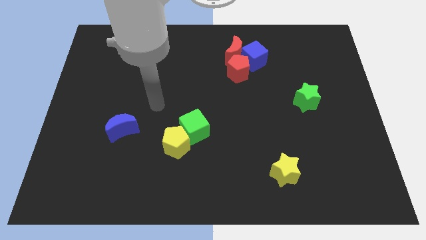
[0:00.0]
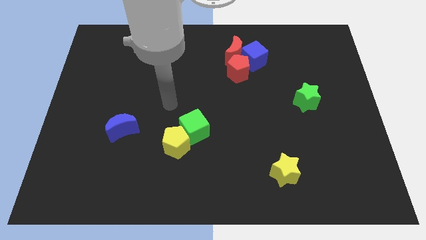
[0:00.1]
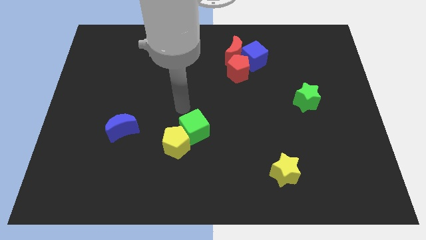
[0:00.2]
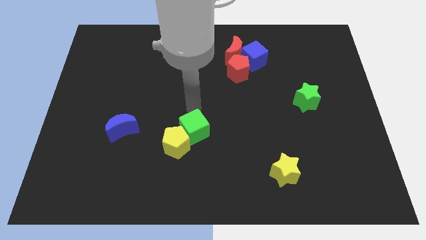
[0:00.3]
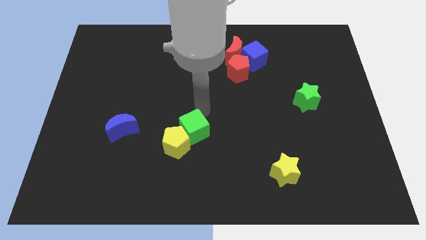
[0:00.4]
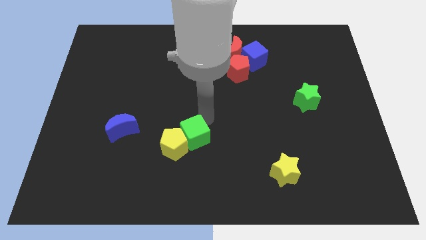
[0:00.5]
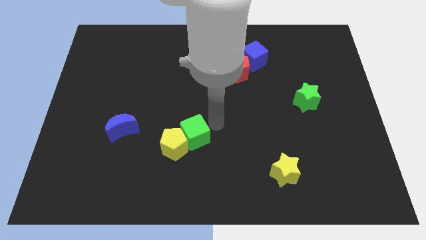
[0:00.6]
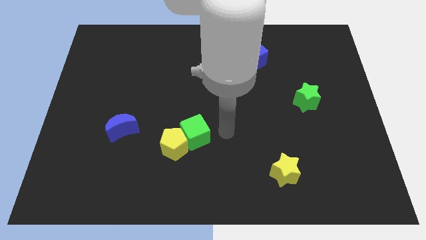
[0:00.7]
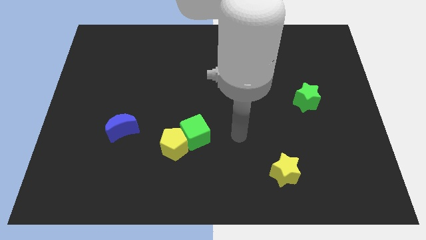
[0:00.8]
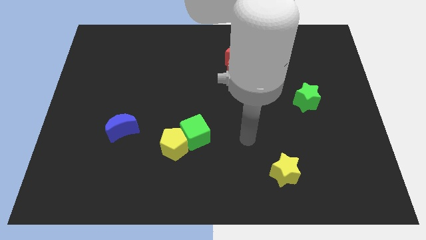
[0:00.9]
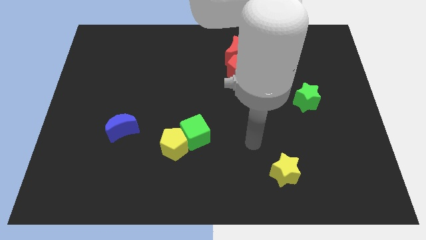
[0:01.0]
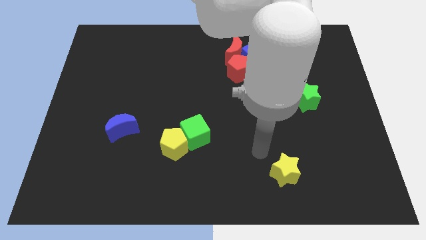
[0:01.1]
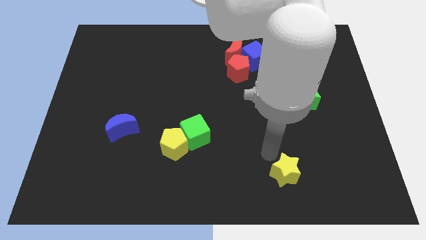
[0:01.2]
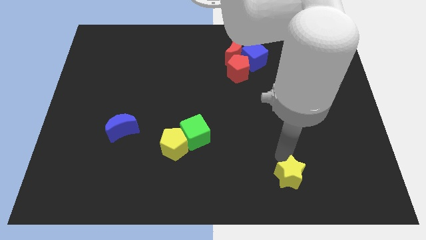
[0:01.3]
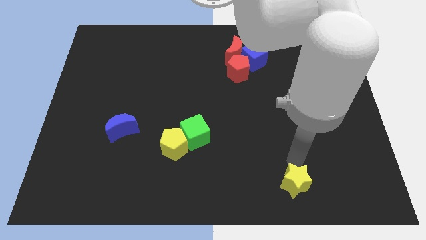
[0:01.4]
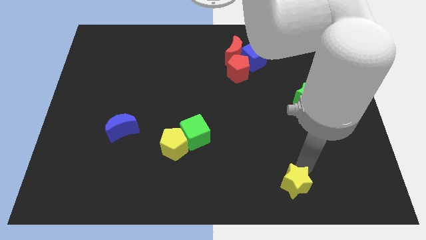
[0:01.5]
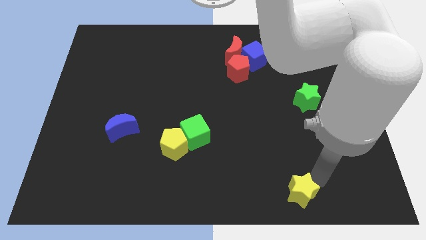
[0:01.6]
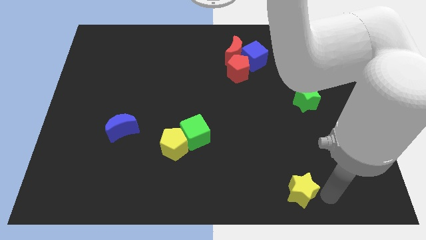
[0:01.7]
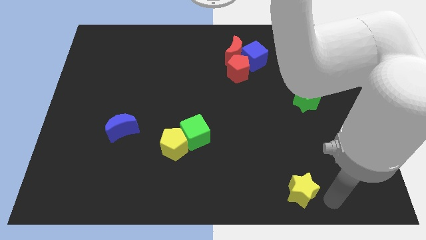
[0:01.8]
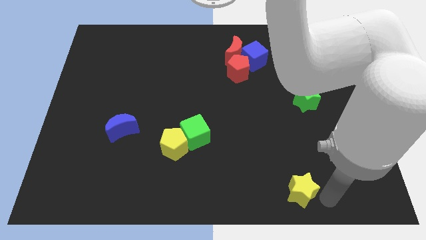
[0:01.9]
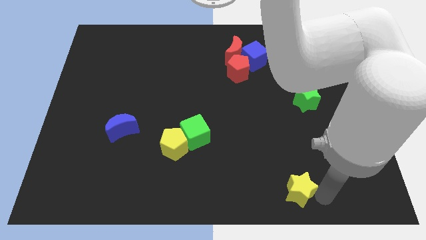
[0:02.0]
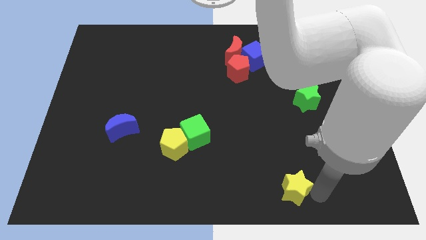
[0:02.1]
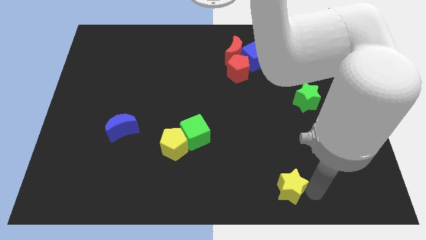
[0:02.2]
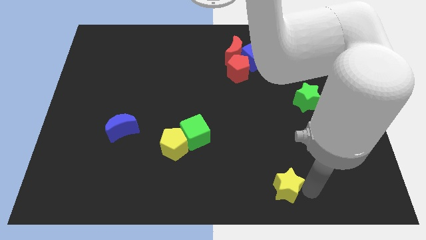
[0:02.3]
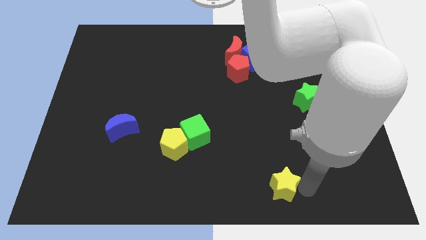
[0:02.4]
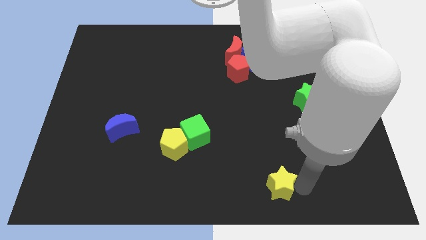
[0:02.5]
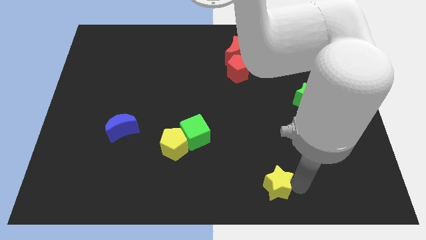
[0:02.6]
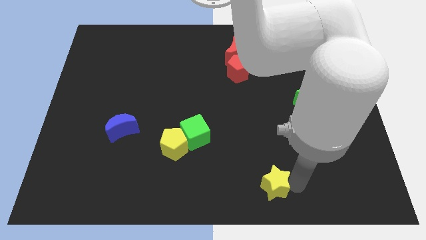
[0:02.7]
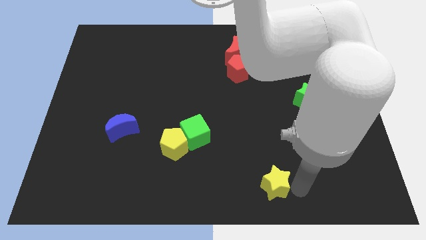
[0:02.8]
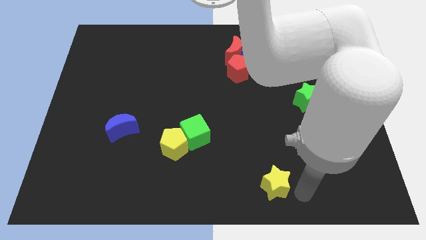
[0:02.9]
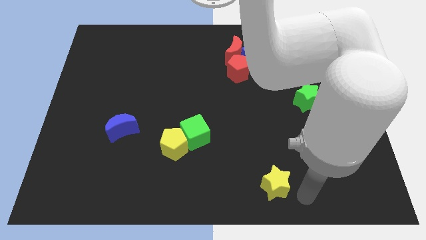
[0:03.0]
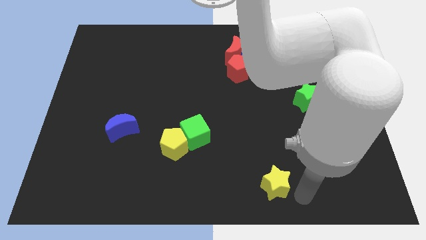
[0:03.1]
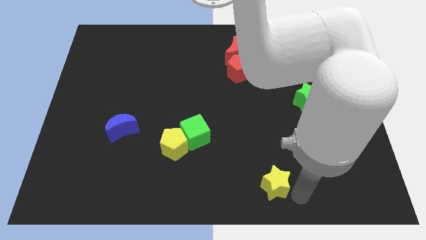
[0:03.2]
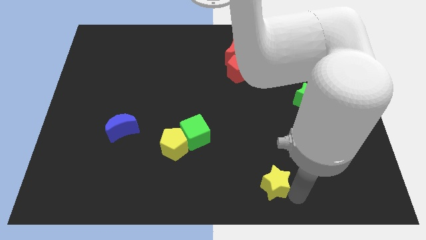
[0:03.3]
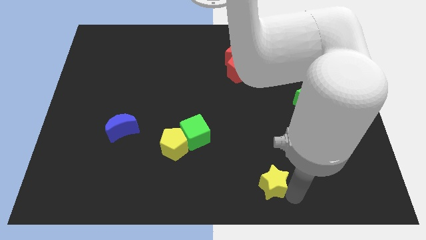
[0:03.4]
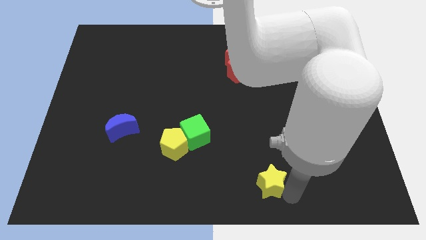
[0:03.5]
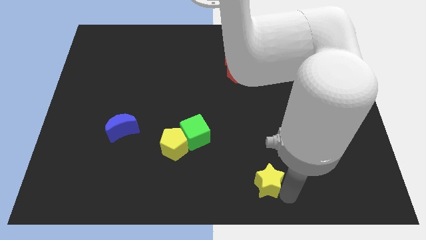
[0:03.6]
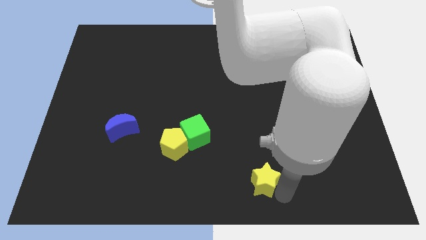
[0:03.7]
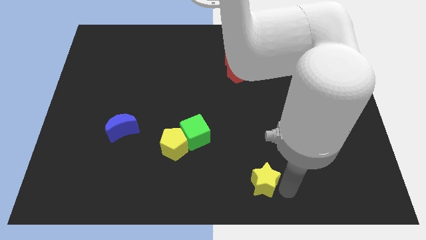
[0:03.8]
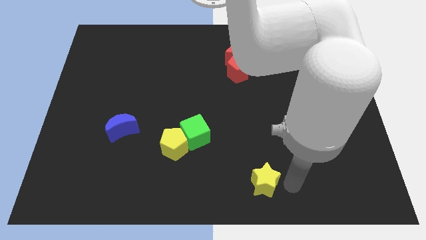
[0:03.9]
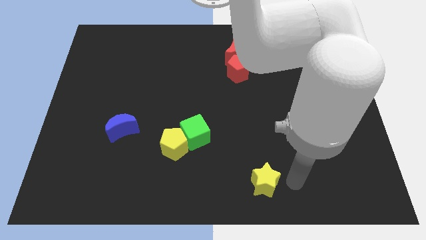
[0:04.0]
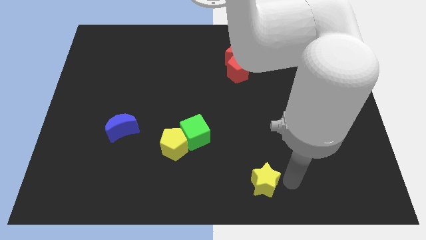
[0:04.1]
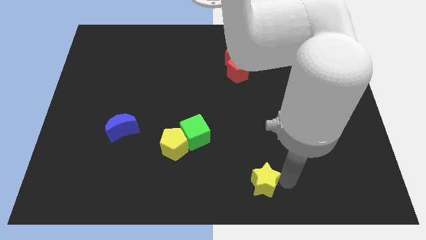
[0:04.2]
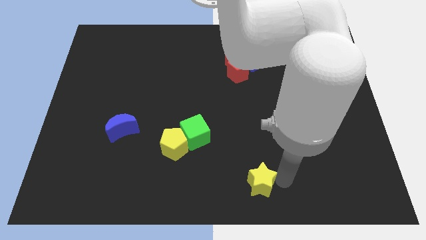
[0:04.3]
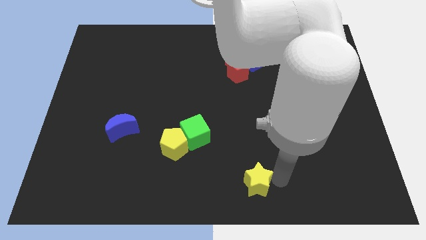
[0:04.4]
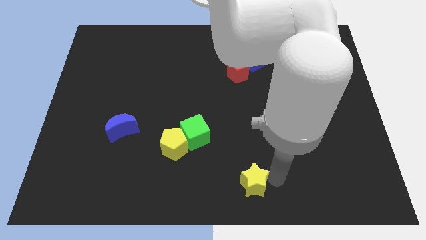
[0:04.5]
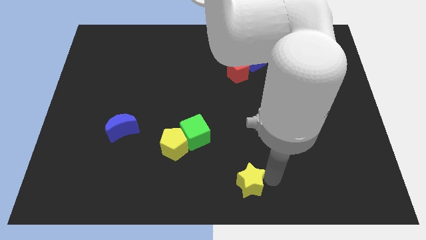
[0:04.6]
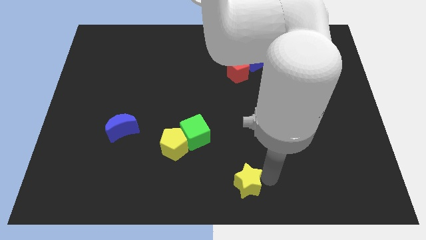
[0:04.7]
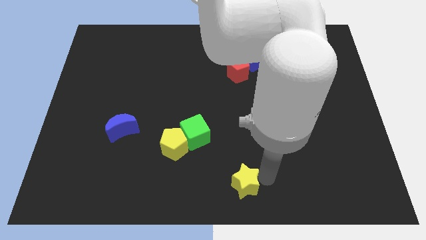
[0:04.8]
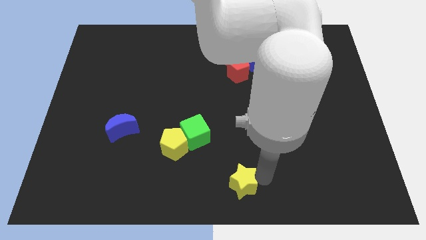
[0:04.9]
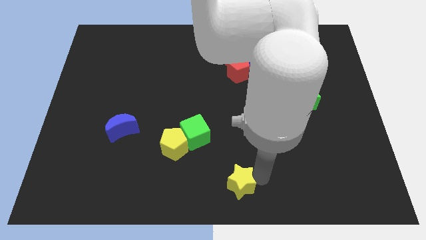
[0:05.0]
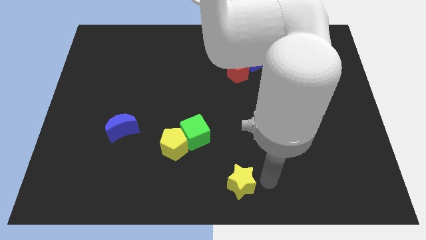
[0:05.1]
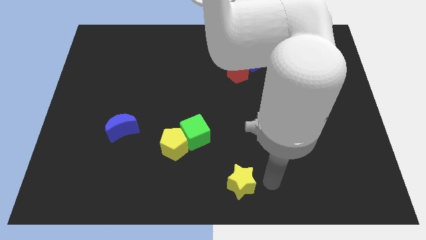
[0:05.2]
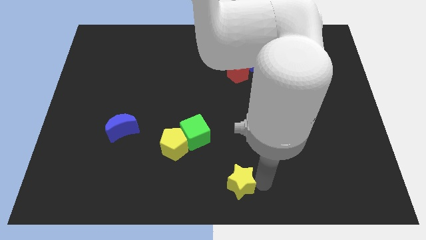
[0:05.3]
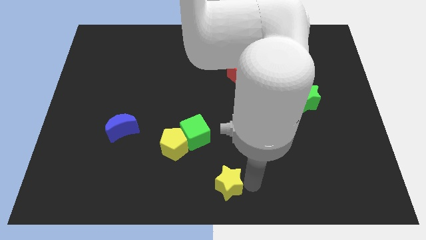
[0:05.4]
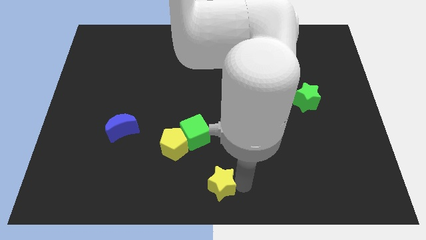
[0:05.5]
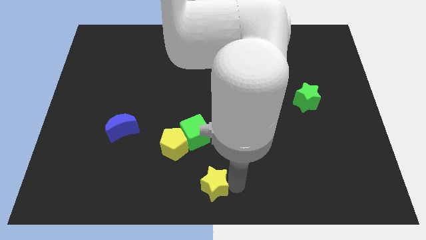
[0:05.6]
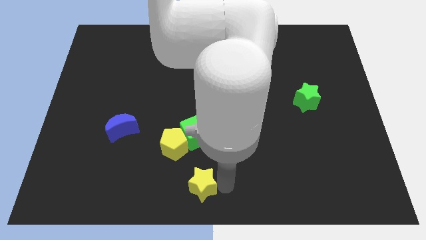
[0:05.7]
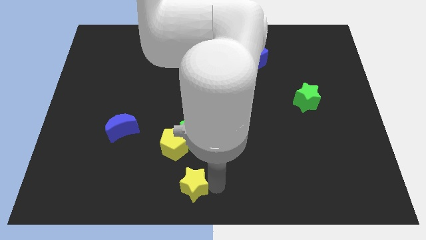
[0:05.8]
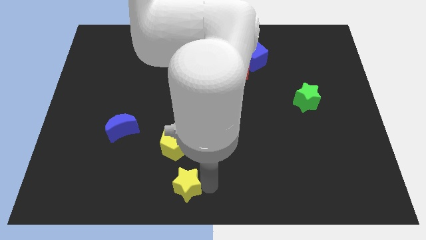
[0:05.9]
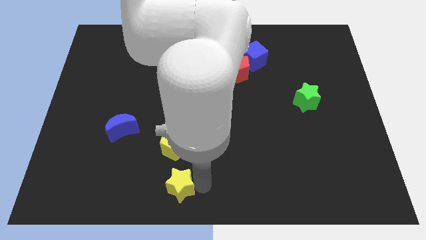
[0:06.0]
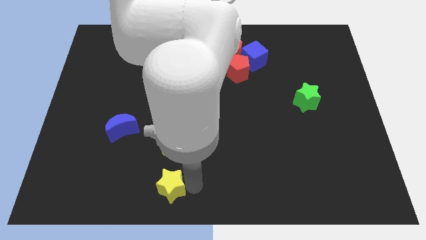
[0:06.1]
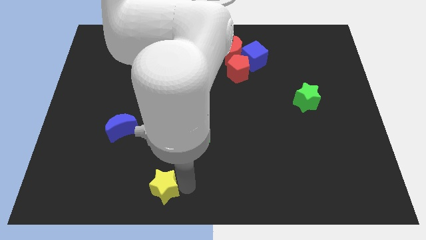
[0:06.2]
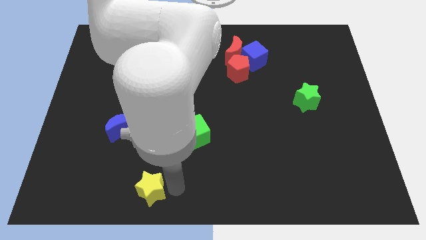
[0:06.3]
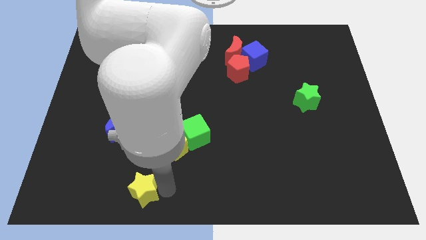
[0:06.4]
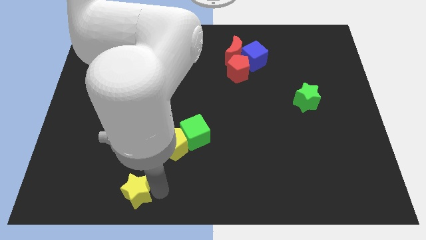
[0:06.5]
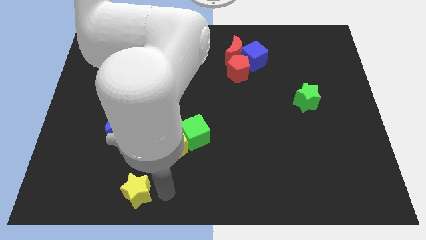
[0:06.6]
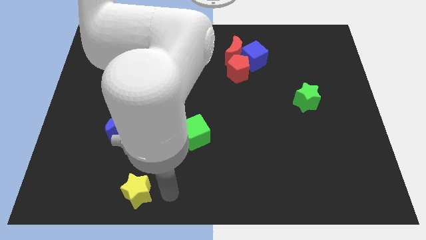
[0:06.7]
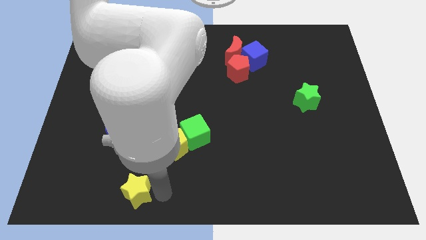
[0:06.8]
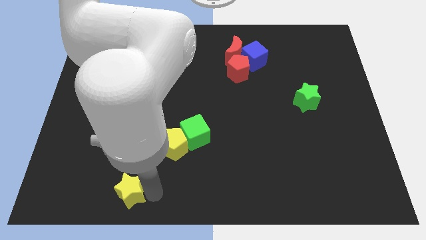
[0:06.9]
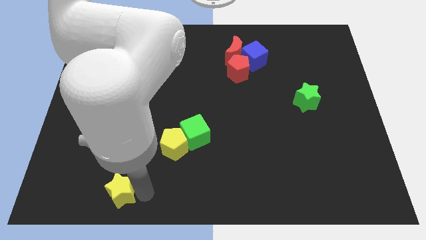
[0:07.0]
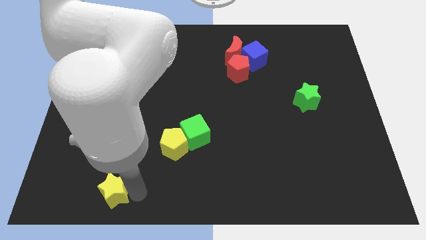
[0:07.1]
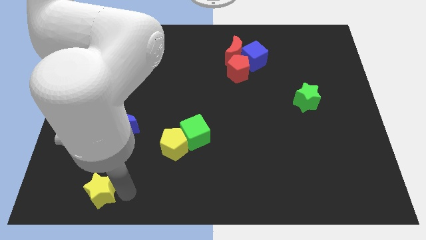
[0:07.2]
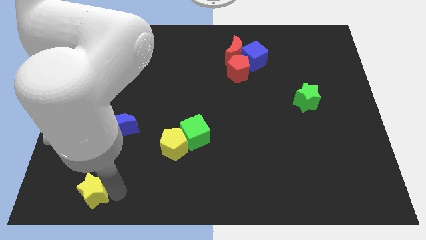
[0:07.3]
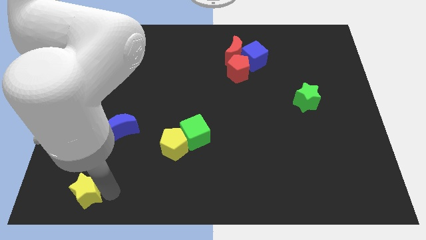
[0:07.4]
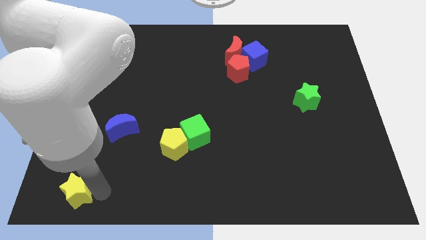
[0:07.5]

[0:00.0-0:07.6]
slide the yellow star to the lower left corner
